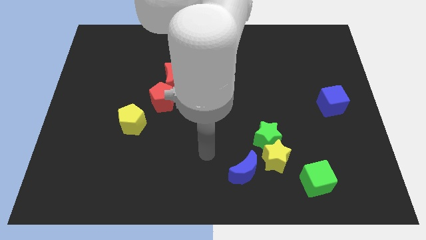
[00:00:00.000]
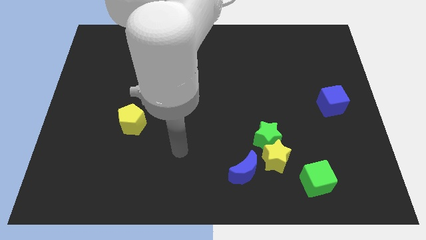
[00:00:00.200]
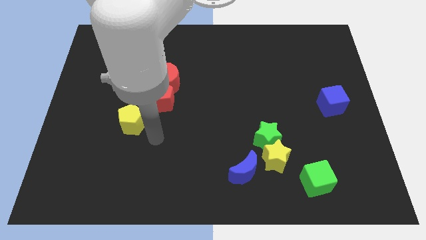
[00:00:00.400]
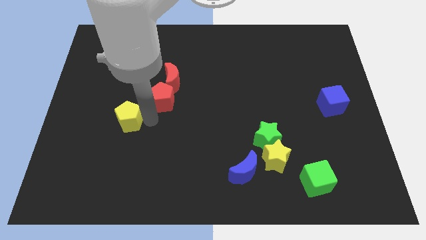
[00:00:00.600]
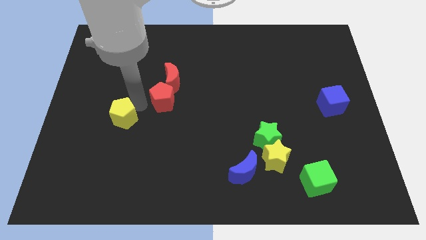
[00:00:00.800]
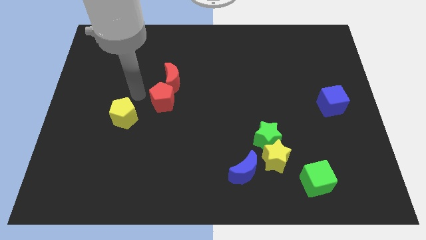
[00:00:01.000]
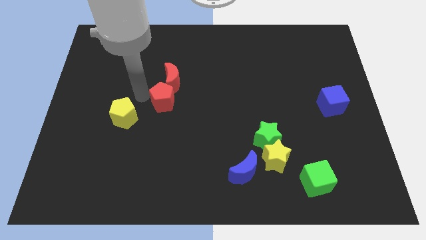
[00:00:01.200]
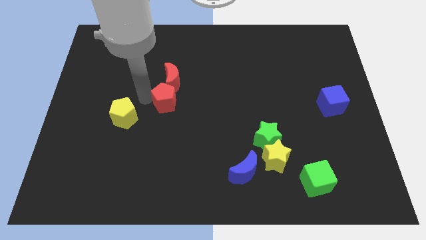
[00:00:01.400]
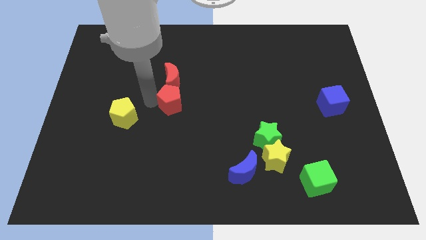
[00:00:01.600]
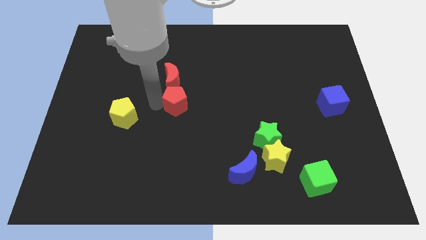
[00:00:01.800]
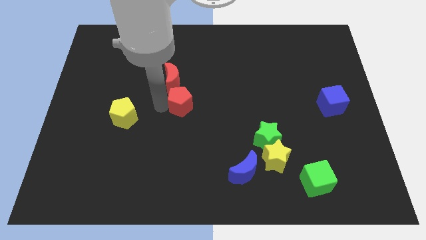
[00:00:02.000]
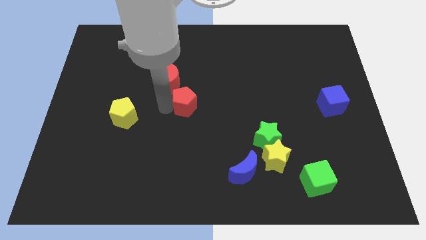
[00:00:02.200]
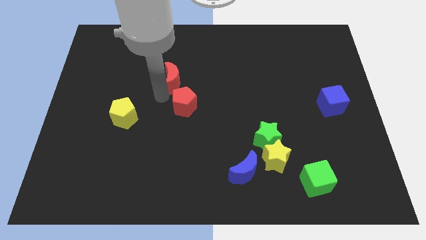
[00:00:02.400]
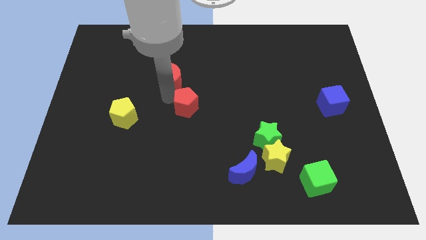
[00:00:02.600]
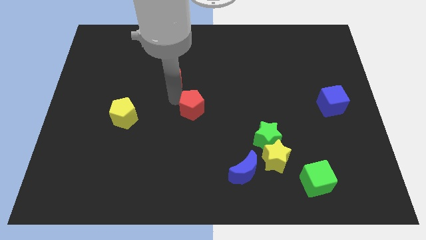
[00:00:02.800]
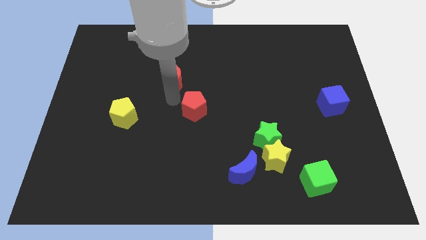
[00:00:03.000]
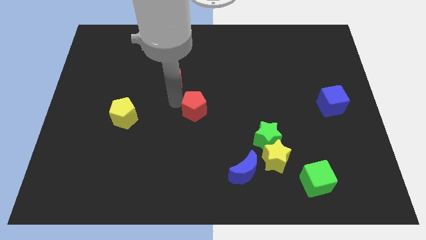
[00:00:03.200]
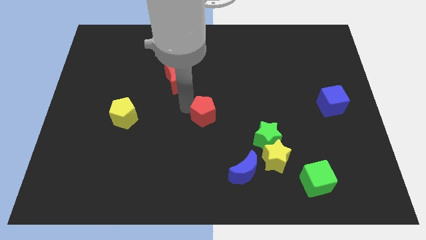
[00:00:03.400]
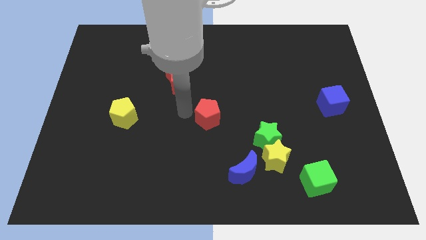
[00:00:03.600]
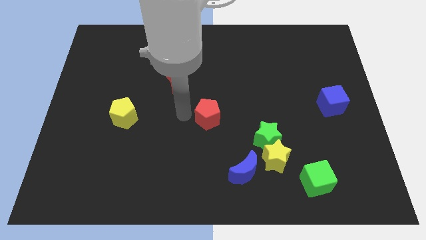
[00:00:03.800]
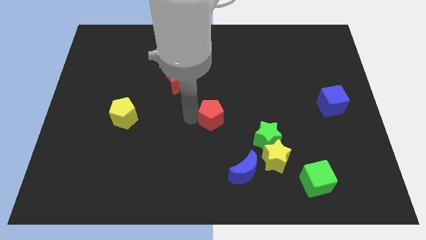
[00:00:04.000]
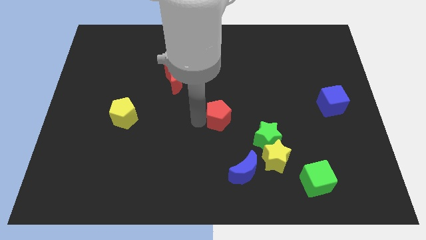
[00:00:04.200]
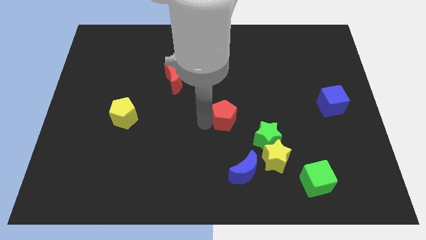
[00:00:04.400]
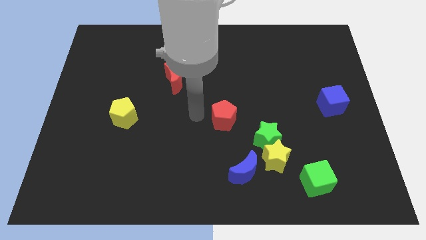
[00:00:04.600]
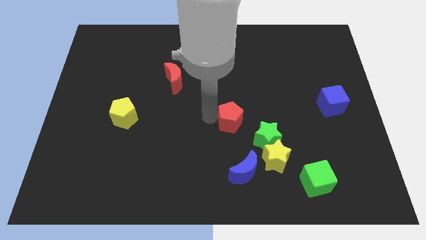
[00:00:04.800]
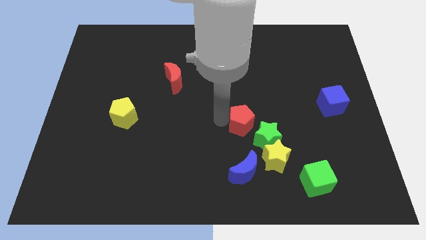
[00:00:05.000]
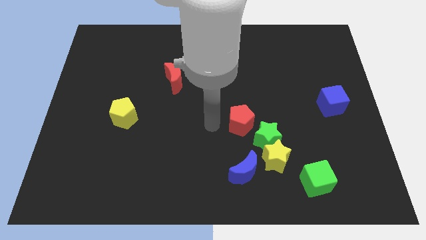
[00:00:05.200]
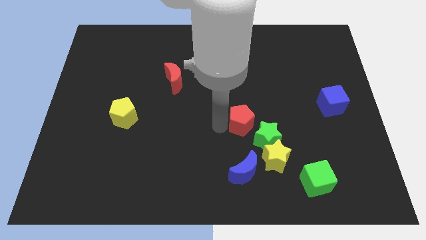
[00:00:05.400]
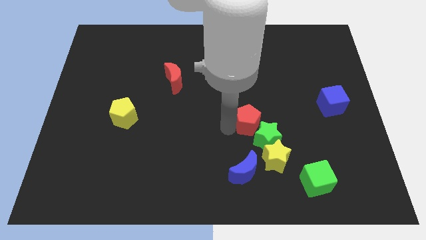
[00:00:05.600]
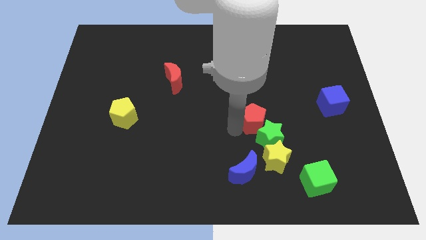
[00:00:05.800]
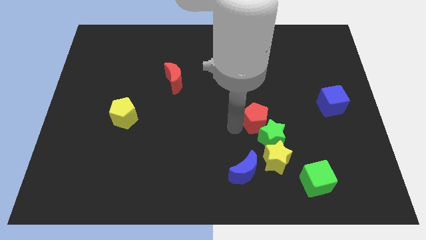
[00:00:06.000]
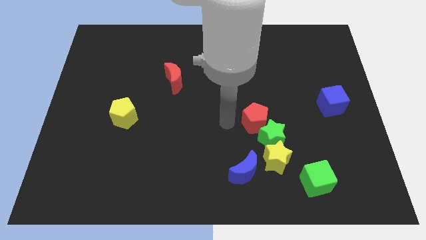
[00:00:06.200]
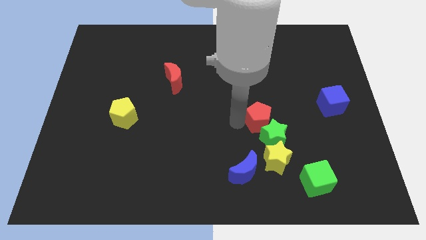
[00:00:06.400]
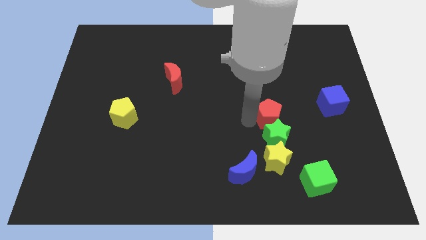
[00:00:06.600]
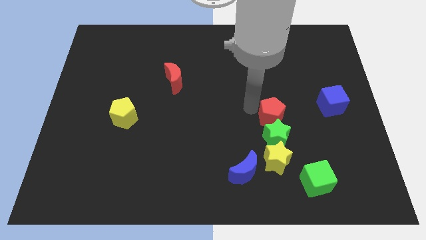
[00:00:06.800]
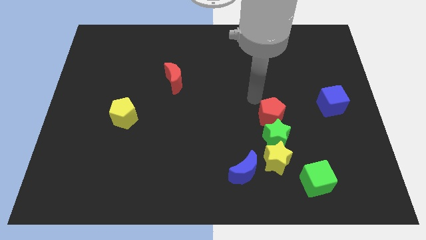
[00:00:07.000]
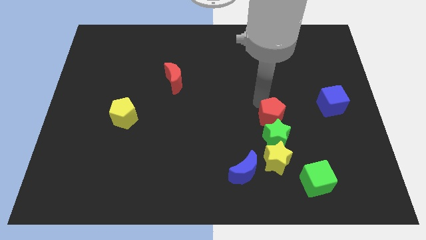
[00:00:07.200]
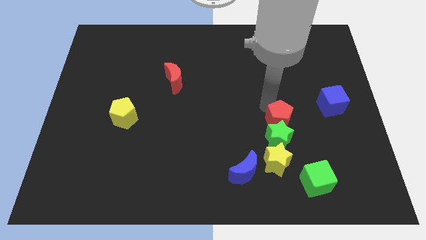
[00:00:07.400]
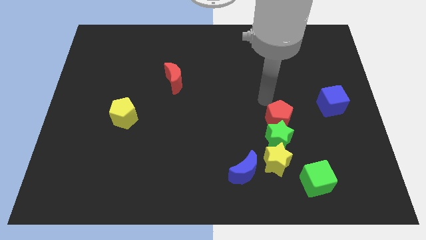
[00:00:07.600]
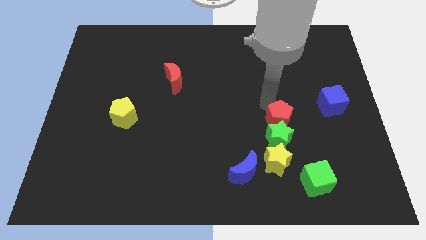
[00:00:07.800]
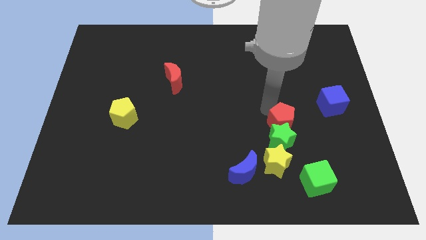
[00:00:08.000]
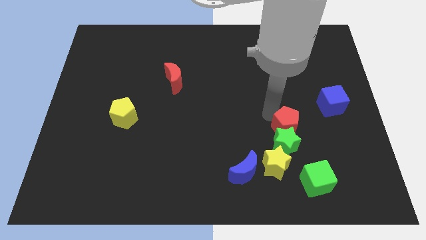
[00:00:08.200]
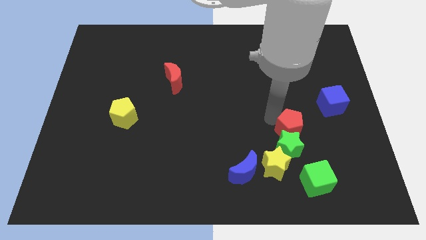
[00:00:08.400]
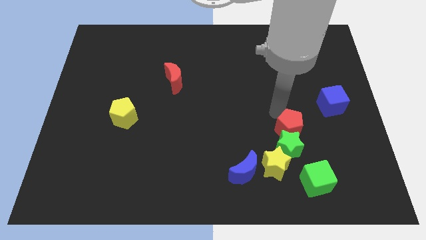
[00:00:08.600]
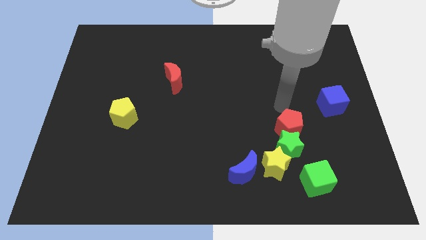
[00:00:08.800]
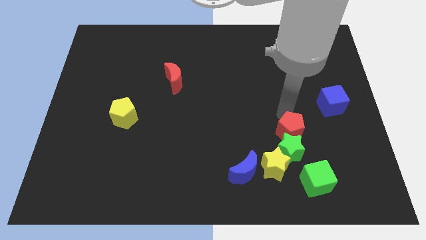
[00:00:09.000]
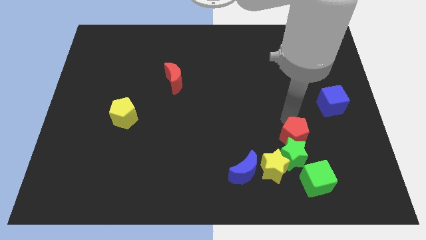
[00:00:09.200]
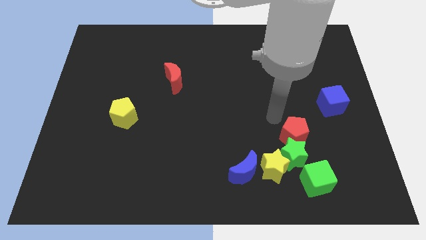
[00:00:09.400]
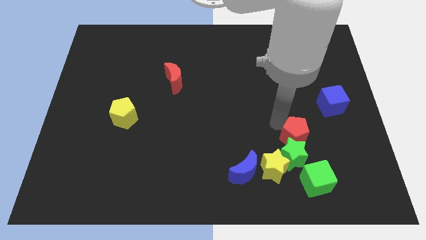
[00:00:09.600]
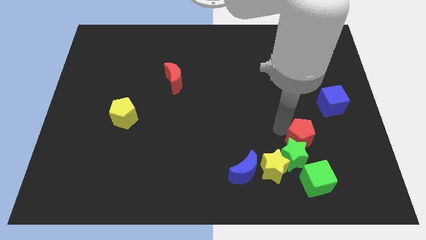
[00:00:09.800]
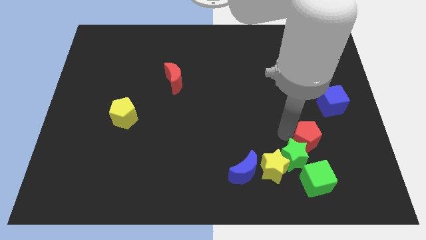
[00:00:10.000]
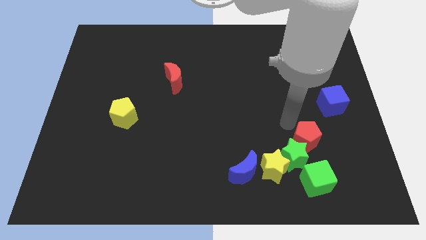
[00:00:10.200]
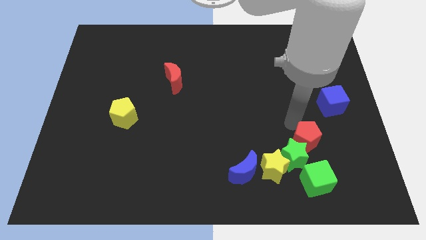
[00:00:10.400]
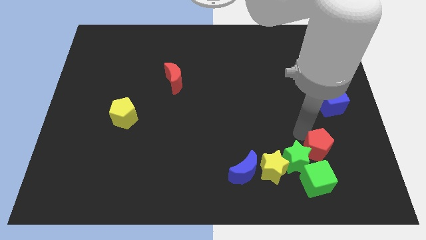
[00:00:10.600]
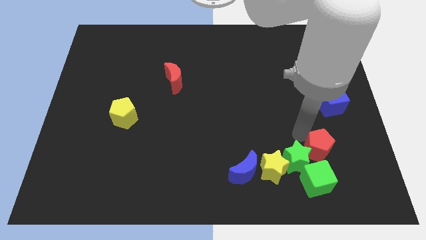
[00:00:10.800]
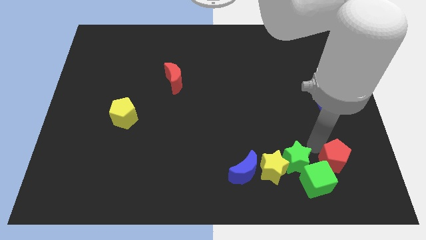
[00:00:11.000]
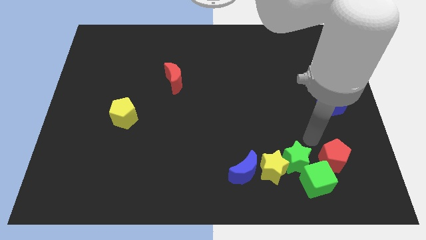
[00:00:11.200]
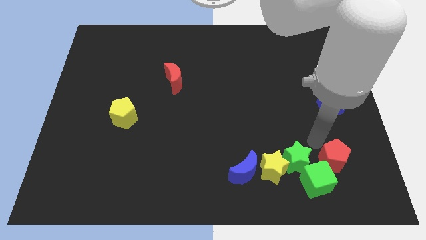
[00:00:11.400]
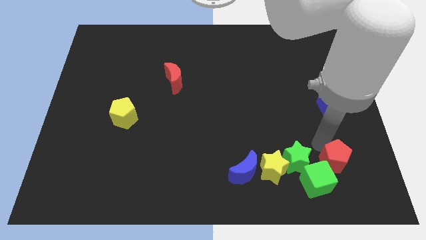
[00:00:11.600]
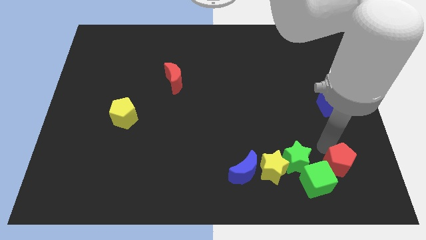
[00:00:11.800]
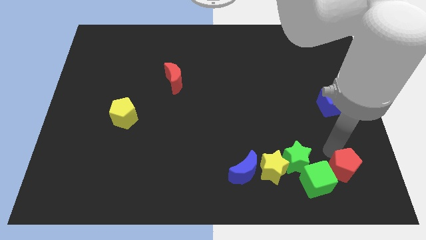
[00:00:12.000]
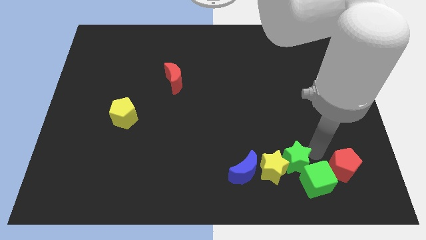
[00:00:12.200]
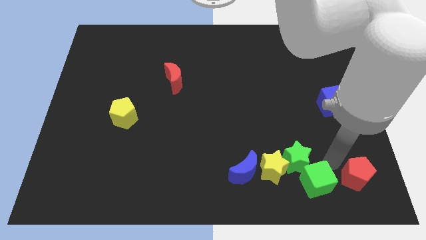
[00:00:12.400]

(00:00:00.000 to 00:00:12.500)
put the red pentagon to the bottom right corner

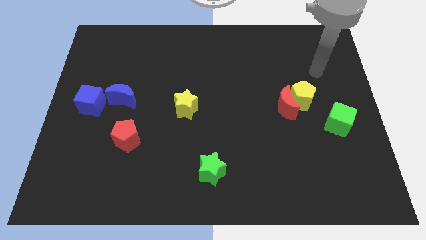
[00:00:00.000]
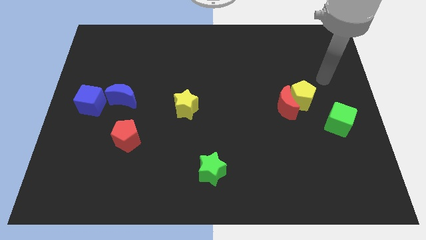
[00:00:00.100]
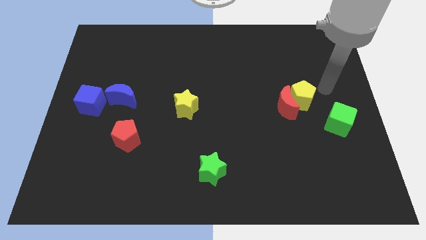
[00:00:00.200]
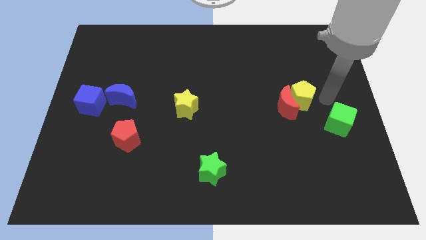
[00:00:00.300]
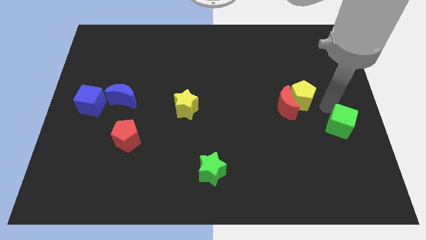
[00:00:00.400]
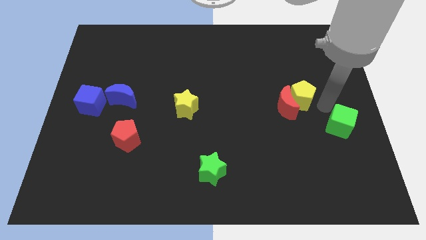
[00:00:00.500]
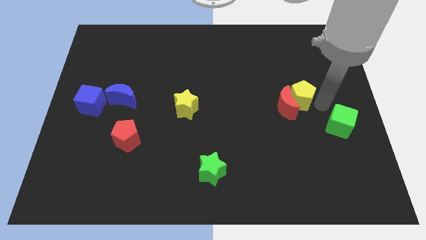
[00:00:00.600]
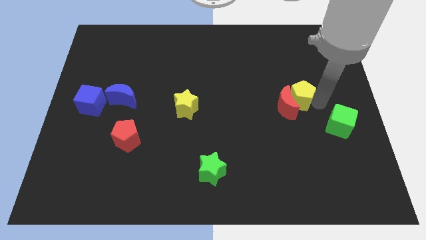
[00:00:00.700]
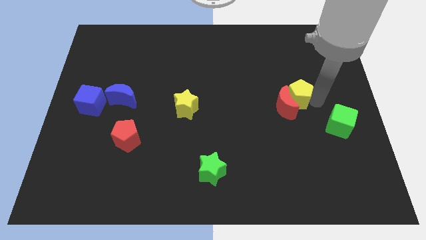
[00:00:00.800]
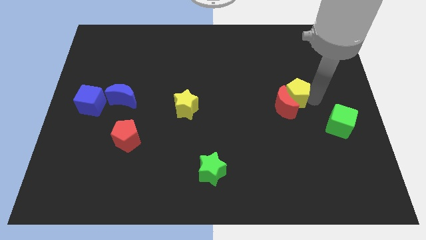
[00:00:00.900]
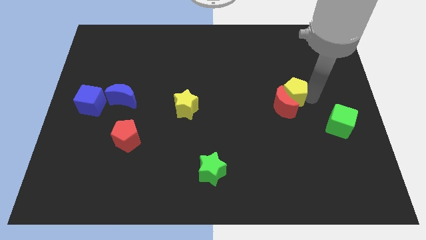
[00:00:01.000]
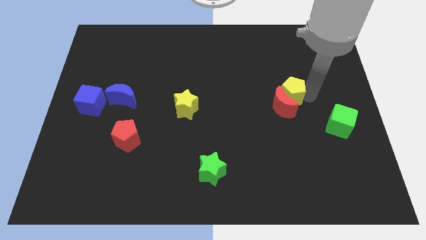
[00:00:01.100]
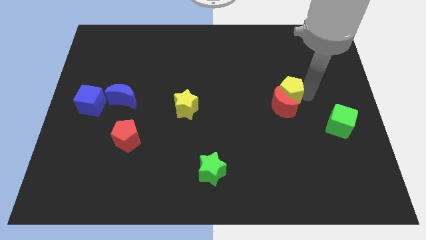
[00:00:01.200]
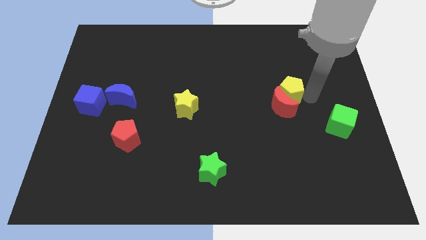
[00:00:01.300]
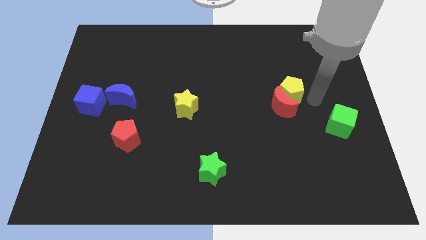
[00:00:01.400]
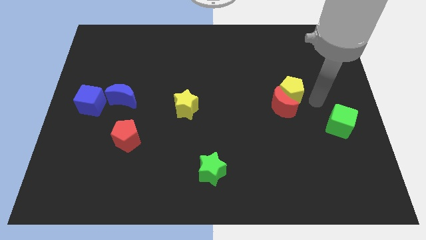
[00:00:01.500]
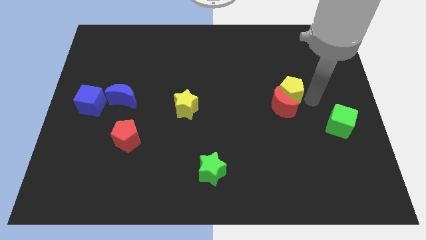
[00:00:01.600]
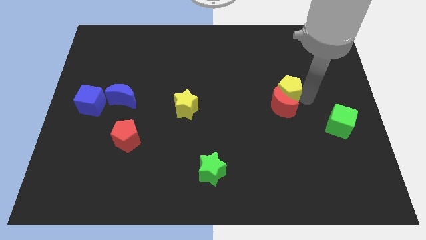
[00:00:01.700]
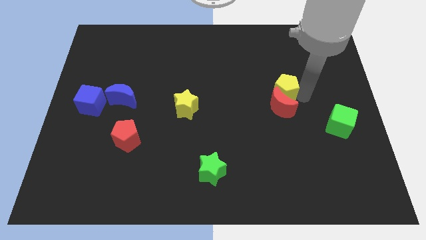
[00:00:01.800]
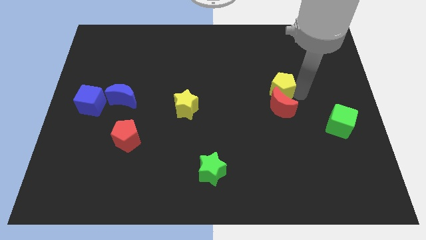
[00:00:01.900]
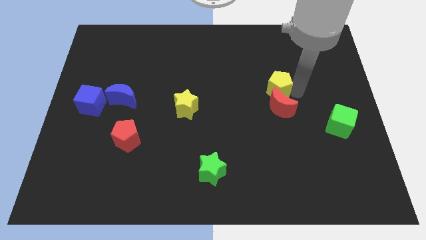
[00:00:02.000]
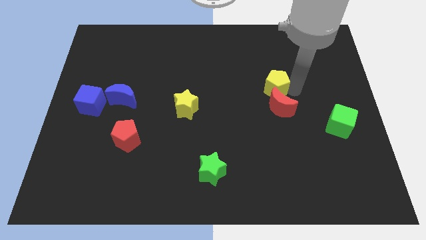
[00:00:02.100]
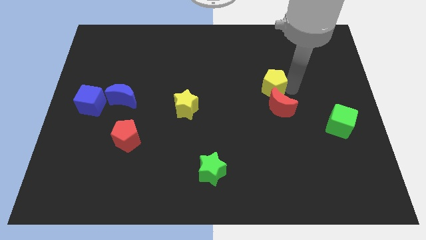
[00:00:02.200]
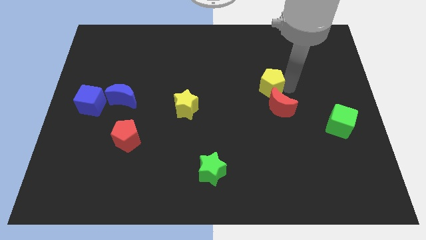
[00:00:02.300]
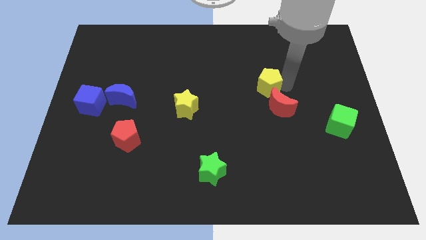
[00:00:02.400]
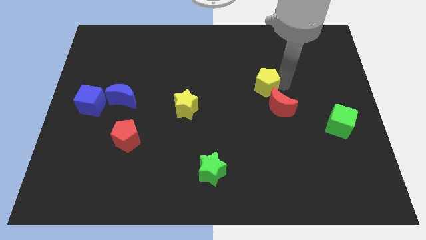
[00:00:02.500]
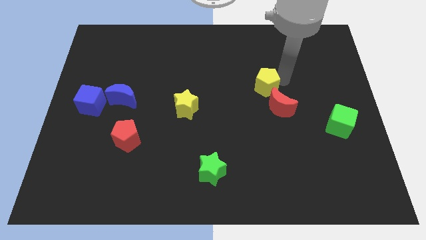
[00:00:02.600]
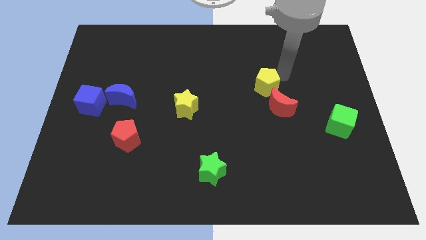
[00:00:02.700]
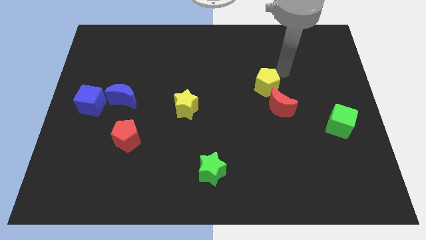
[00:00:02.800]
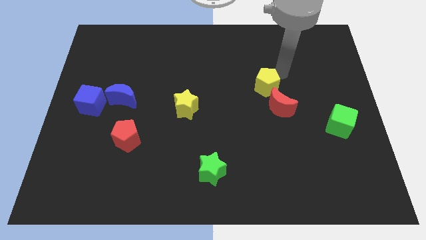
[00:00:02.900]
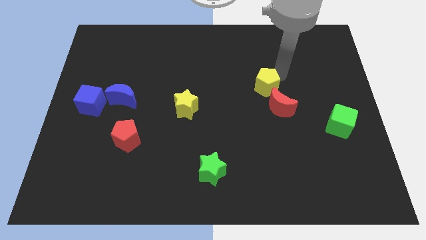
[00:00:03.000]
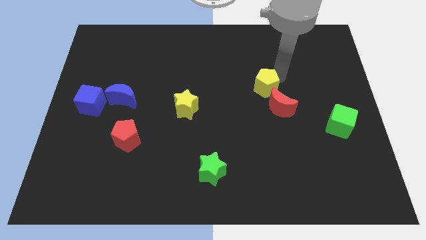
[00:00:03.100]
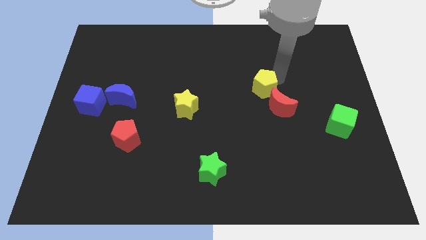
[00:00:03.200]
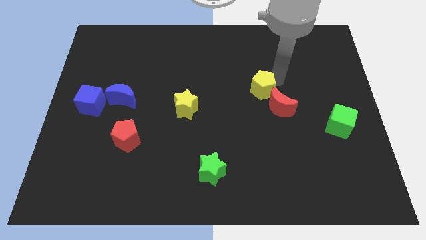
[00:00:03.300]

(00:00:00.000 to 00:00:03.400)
push the yellow pentagon to the center
